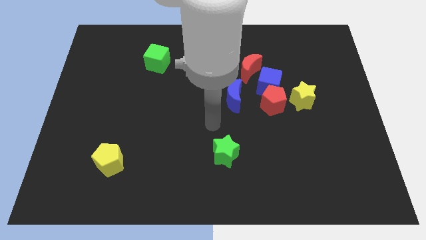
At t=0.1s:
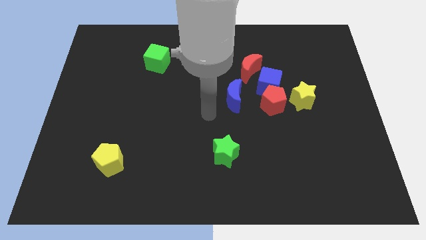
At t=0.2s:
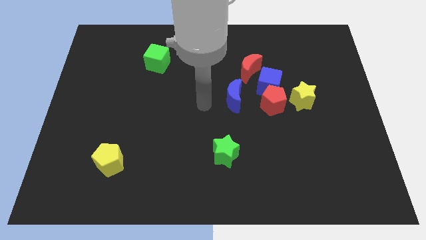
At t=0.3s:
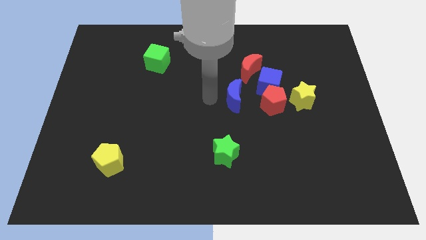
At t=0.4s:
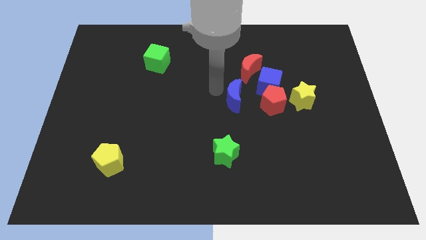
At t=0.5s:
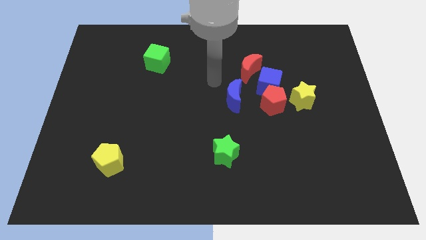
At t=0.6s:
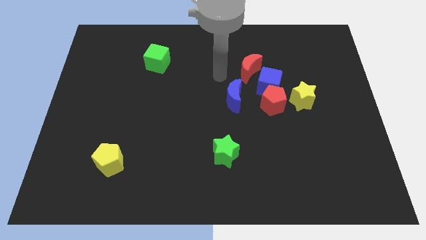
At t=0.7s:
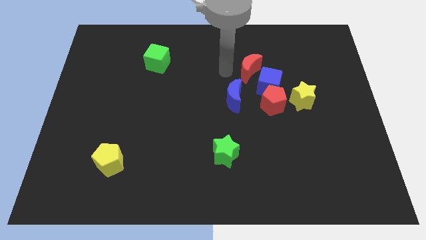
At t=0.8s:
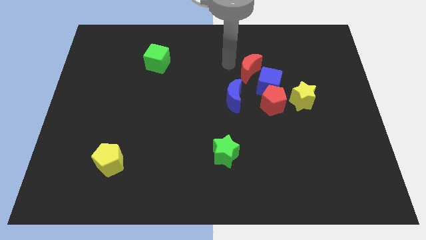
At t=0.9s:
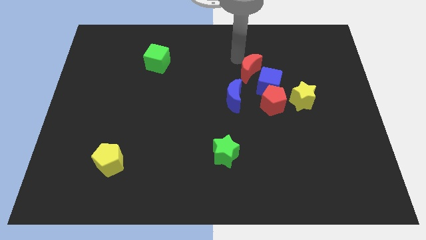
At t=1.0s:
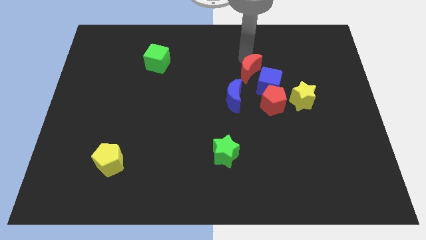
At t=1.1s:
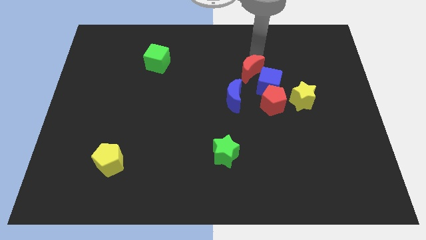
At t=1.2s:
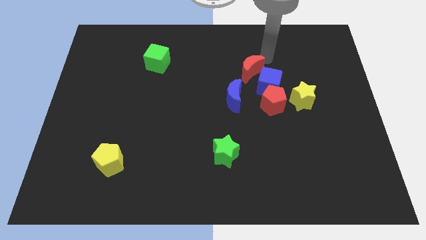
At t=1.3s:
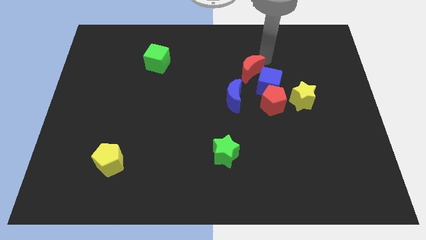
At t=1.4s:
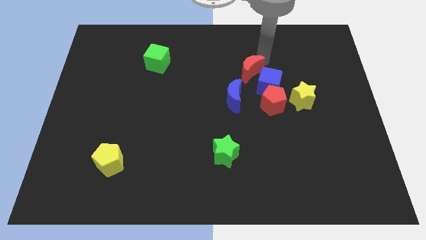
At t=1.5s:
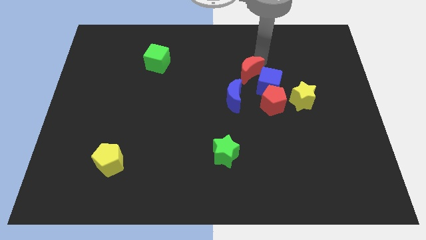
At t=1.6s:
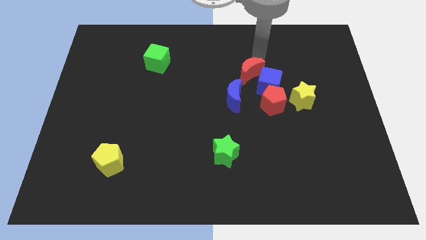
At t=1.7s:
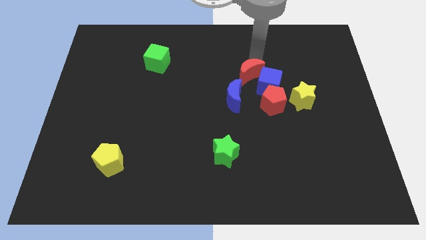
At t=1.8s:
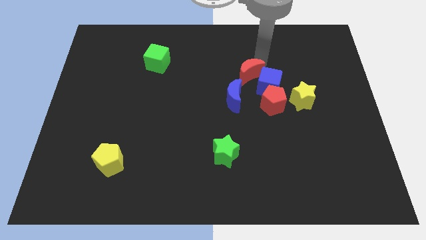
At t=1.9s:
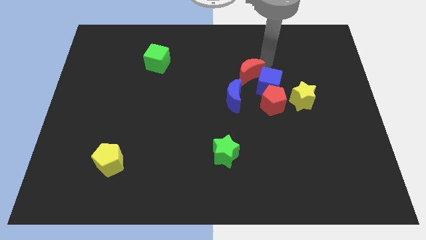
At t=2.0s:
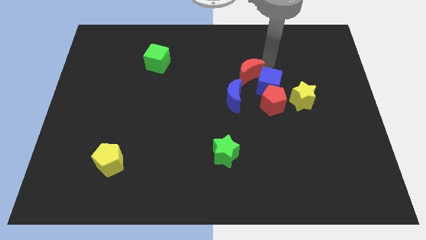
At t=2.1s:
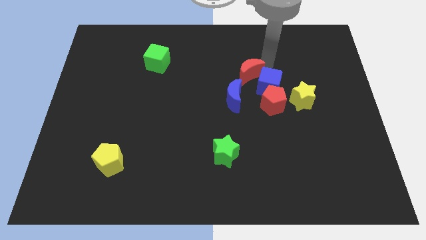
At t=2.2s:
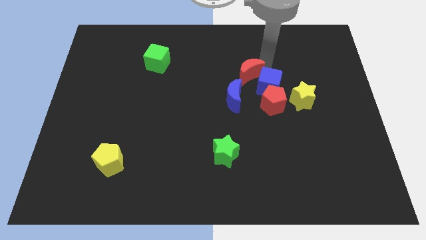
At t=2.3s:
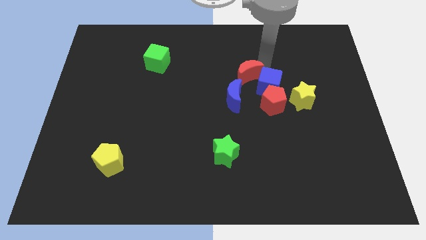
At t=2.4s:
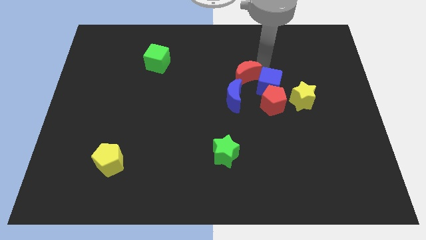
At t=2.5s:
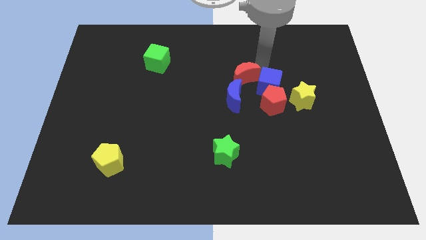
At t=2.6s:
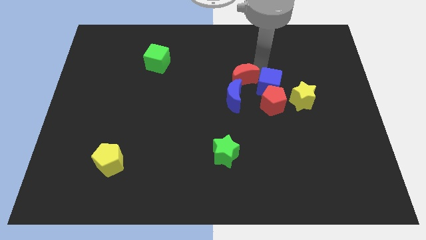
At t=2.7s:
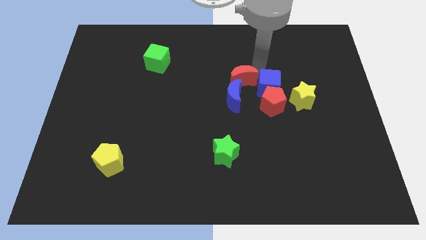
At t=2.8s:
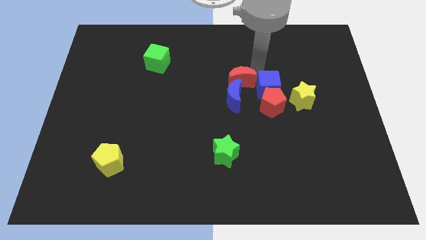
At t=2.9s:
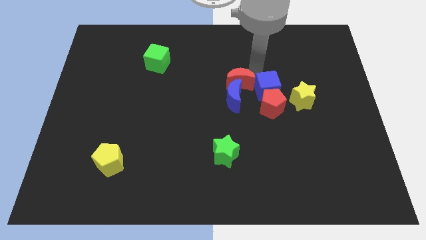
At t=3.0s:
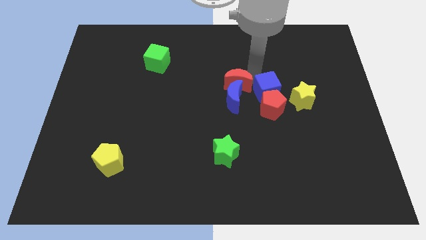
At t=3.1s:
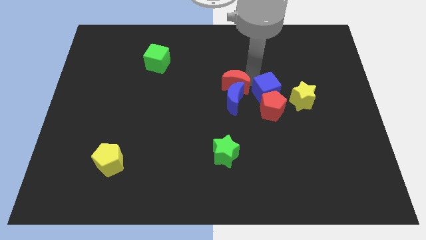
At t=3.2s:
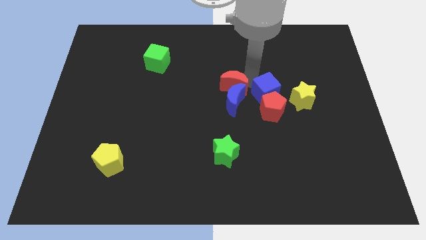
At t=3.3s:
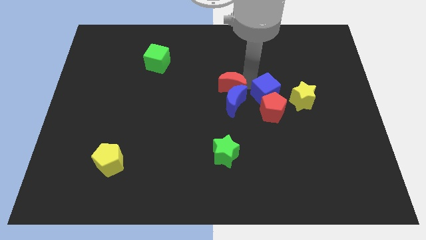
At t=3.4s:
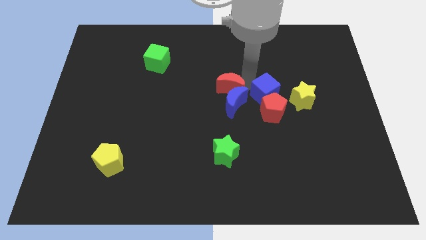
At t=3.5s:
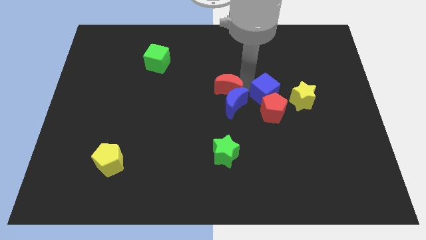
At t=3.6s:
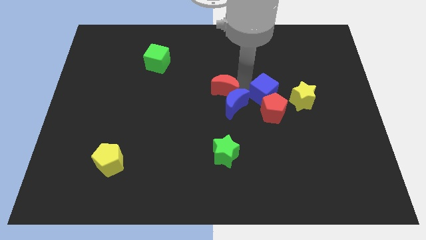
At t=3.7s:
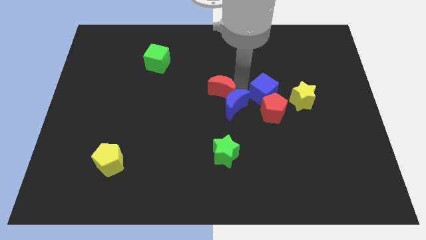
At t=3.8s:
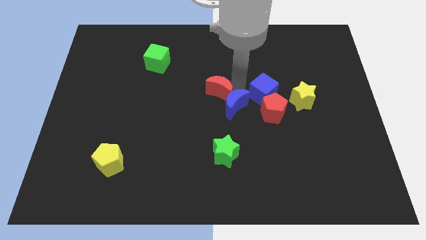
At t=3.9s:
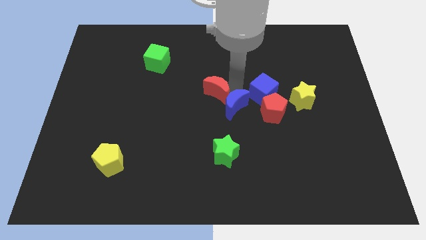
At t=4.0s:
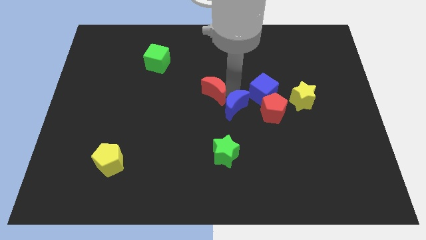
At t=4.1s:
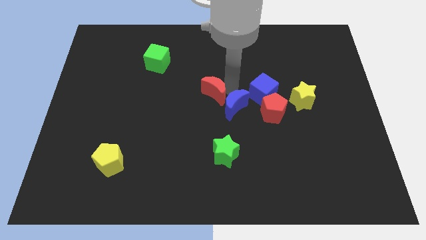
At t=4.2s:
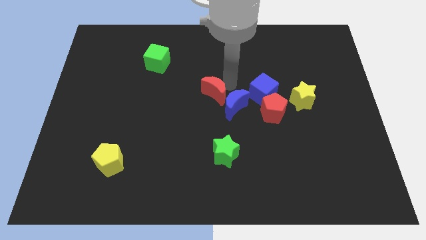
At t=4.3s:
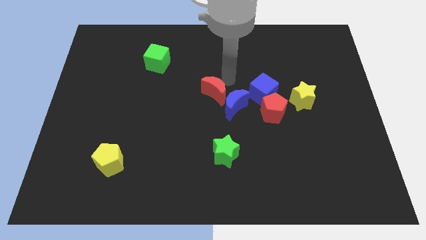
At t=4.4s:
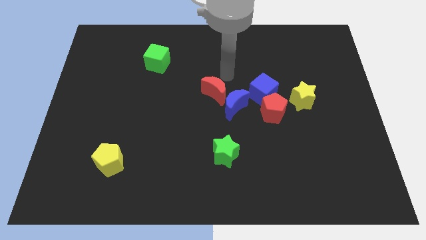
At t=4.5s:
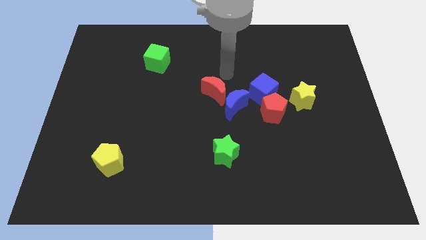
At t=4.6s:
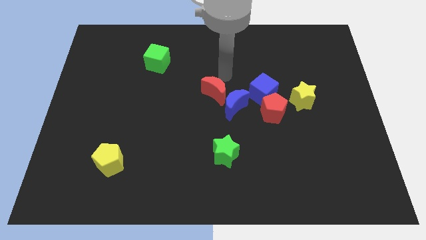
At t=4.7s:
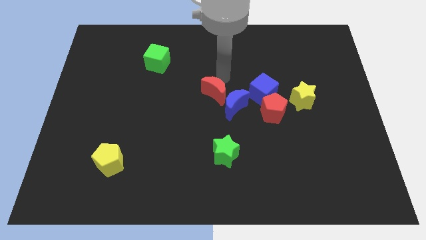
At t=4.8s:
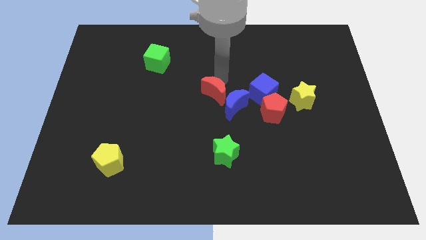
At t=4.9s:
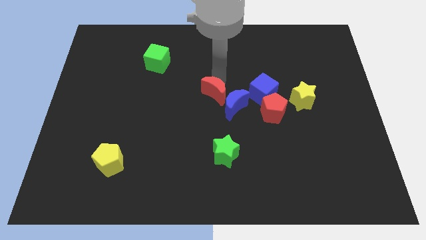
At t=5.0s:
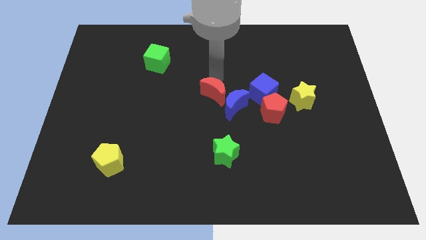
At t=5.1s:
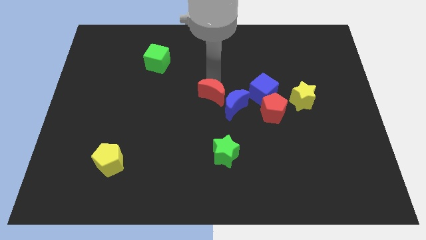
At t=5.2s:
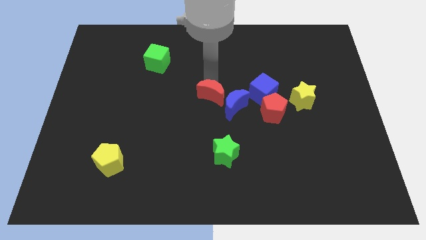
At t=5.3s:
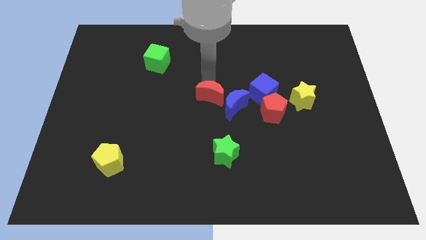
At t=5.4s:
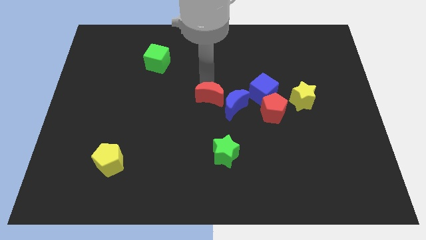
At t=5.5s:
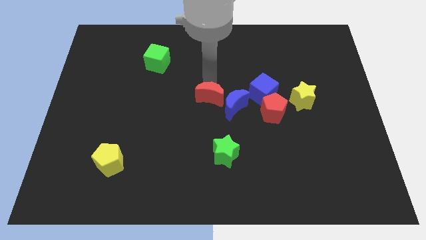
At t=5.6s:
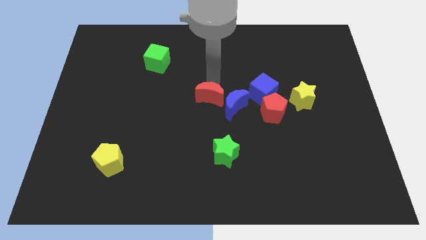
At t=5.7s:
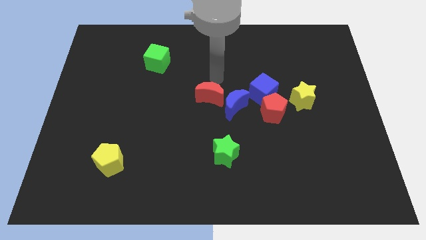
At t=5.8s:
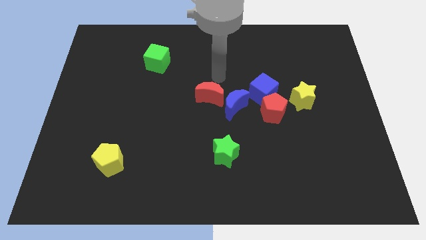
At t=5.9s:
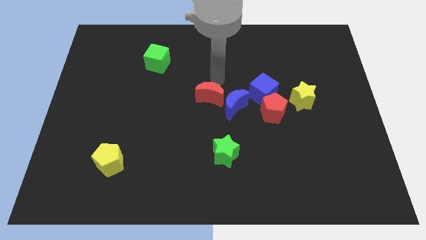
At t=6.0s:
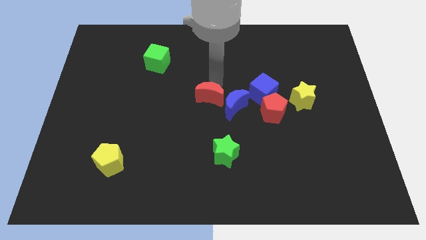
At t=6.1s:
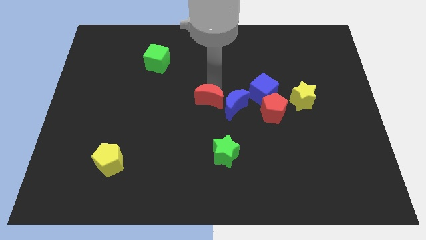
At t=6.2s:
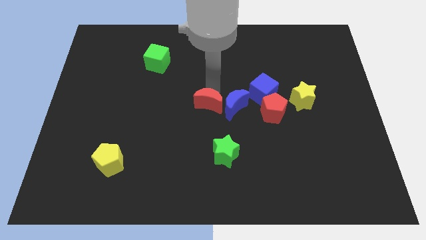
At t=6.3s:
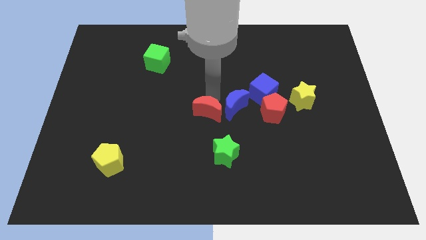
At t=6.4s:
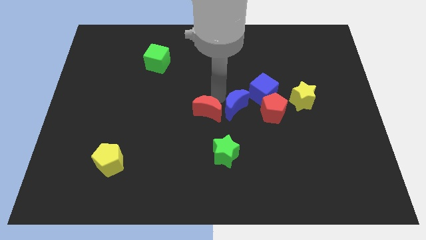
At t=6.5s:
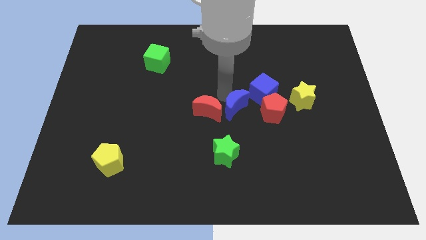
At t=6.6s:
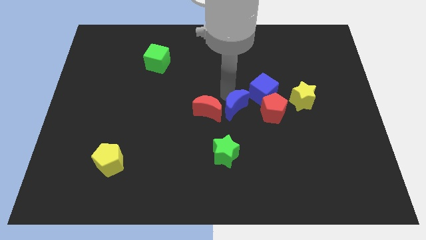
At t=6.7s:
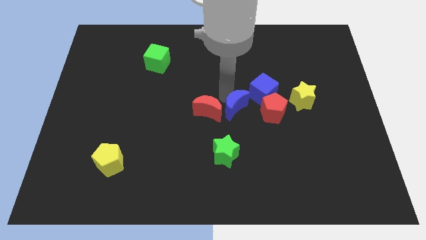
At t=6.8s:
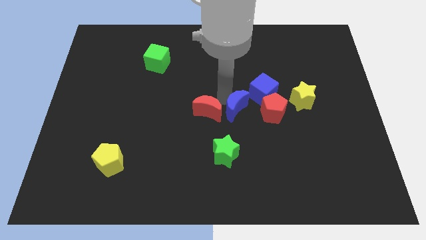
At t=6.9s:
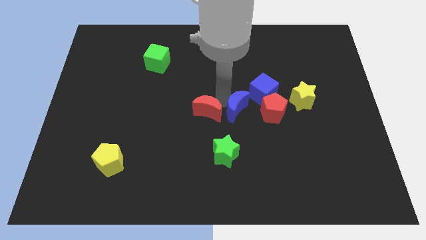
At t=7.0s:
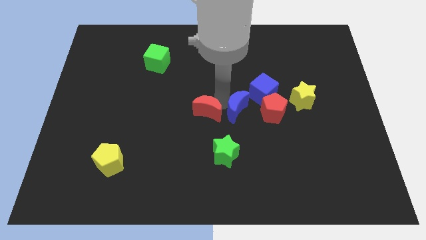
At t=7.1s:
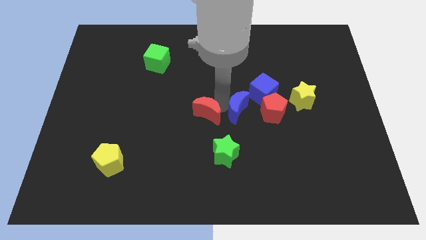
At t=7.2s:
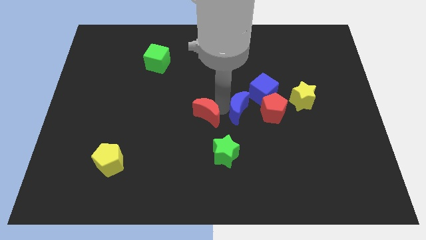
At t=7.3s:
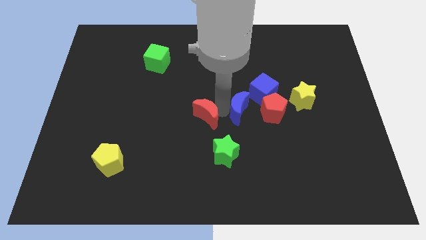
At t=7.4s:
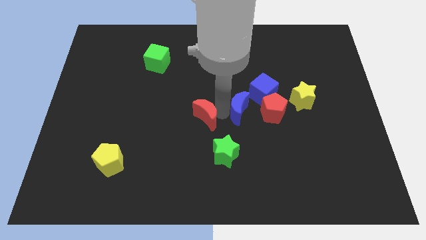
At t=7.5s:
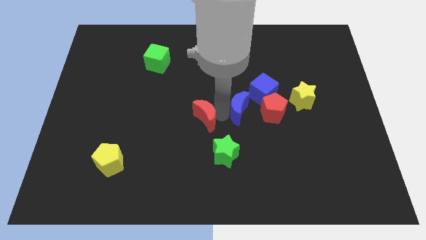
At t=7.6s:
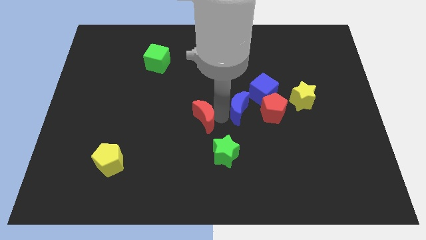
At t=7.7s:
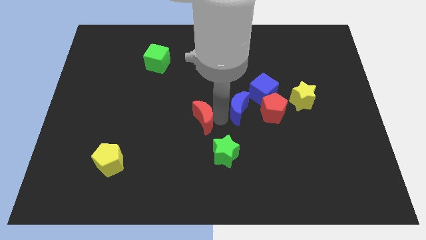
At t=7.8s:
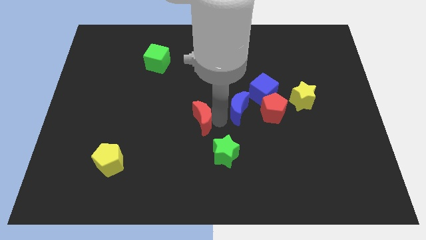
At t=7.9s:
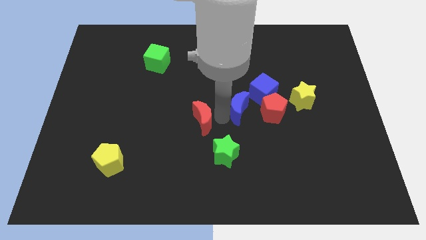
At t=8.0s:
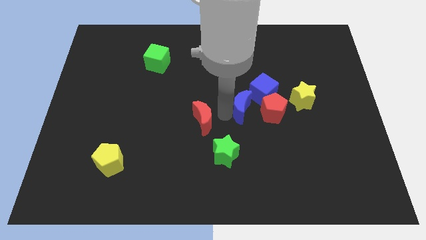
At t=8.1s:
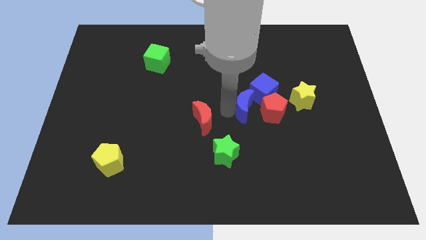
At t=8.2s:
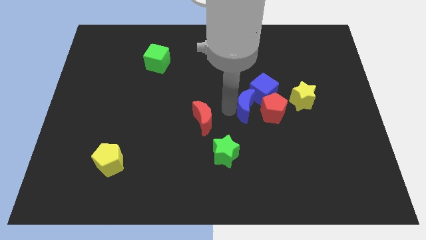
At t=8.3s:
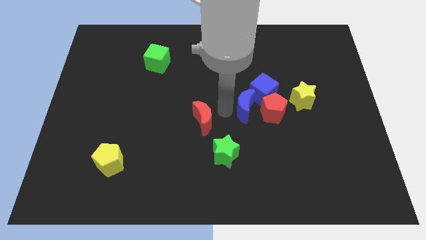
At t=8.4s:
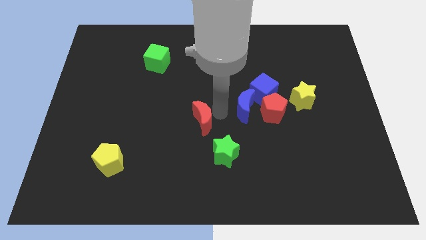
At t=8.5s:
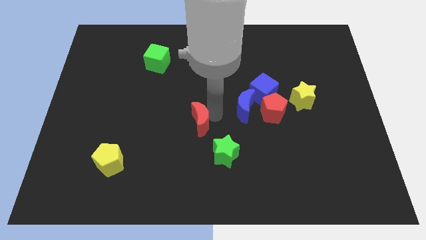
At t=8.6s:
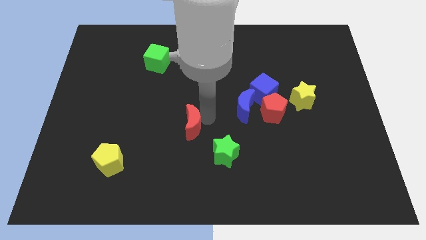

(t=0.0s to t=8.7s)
move the red moon downwards and left diagonally
